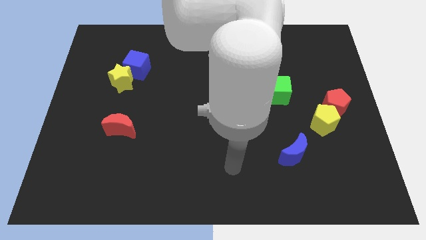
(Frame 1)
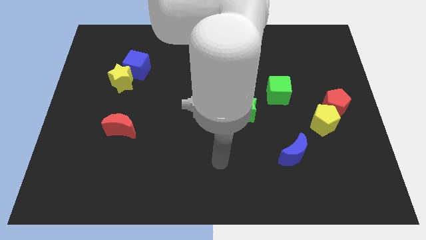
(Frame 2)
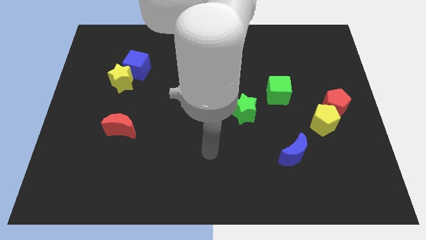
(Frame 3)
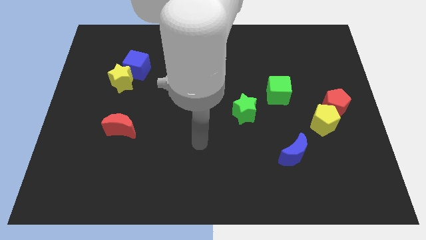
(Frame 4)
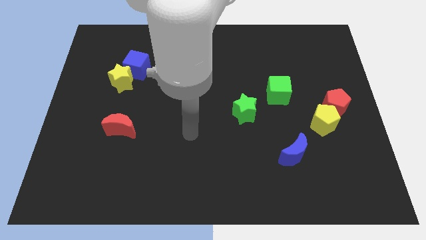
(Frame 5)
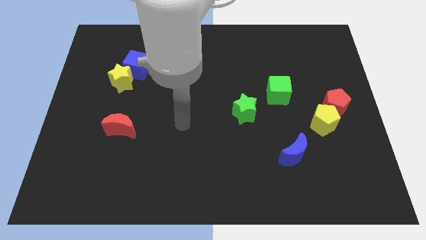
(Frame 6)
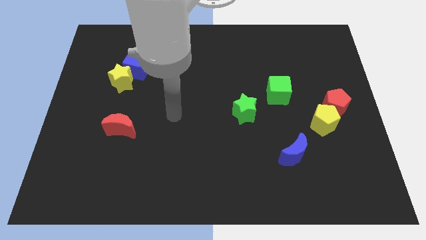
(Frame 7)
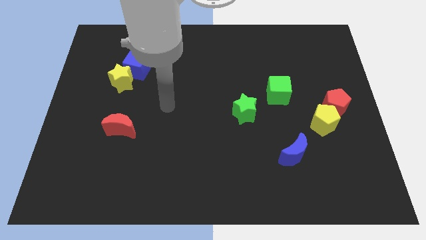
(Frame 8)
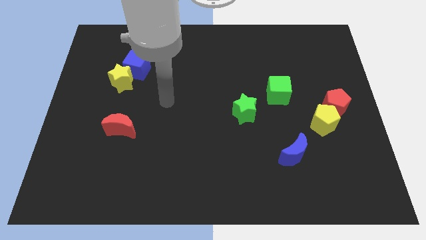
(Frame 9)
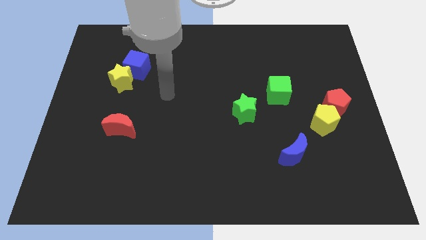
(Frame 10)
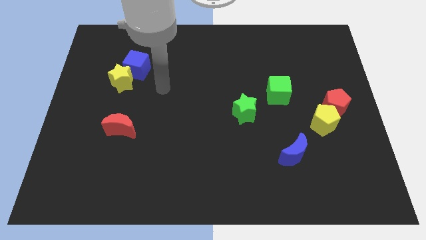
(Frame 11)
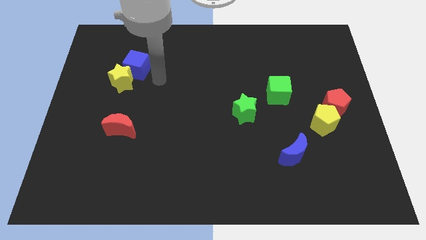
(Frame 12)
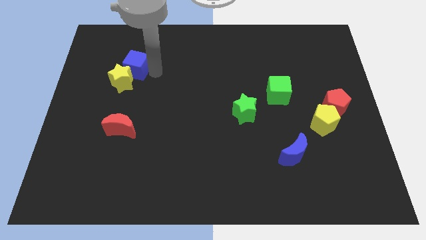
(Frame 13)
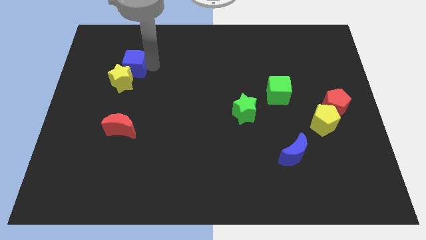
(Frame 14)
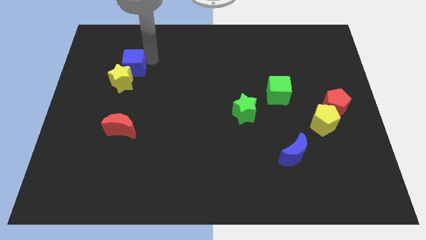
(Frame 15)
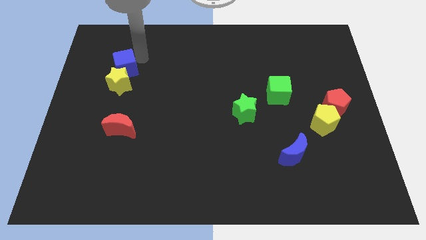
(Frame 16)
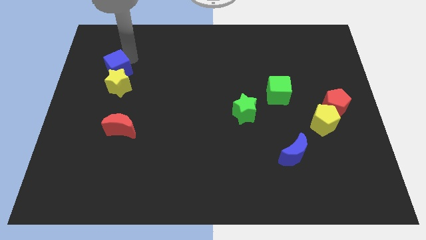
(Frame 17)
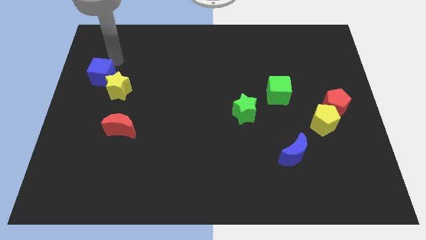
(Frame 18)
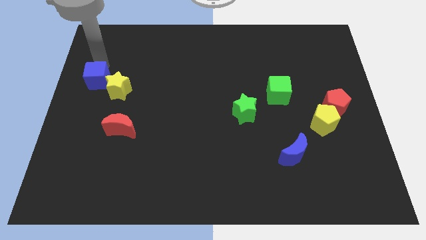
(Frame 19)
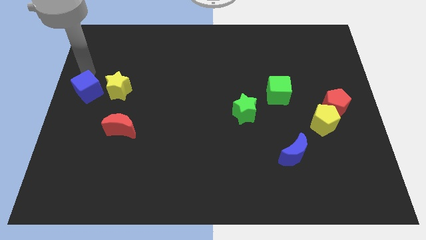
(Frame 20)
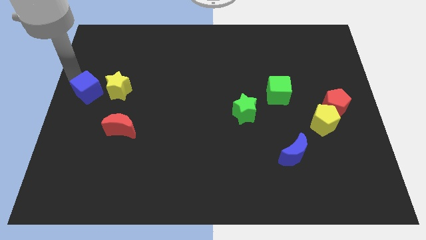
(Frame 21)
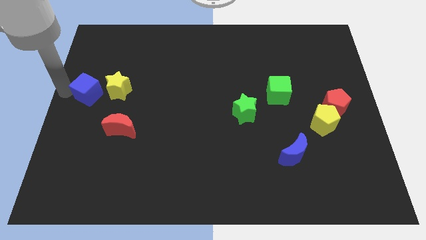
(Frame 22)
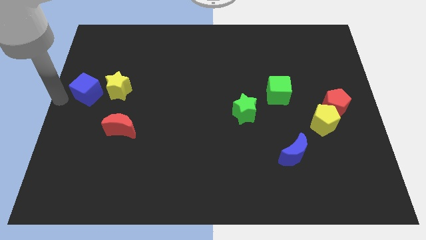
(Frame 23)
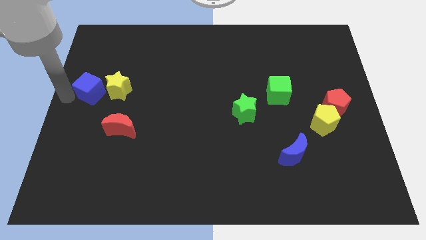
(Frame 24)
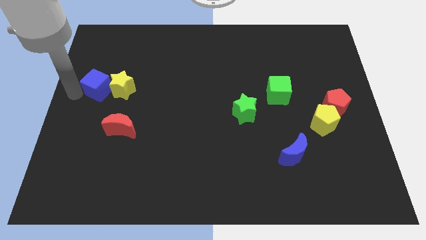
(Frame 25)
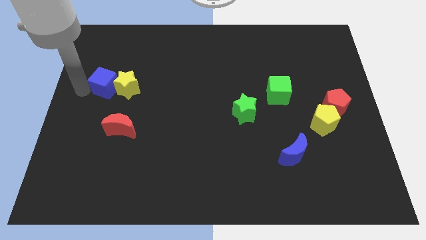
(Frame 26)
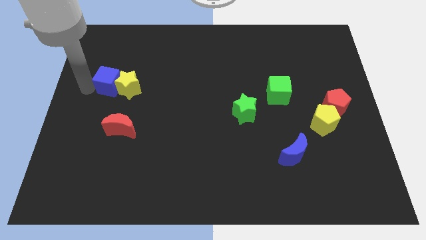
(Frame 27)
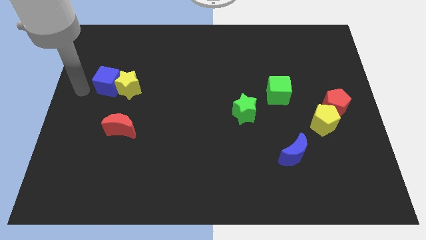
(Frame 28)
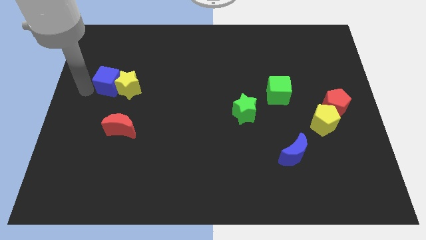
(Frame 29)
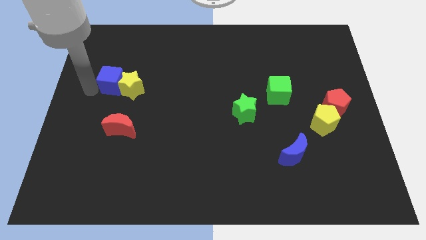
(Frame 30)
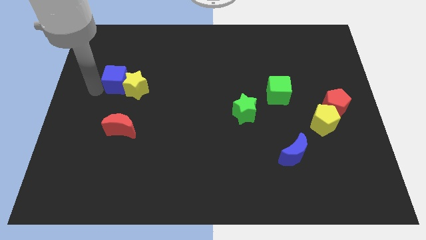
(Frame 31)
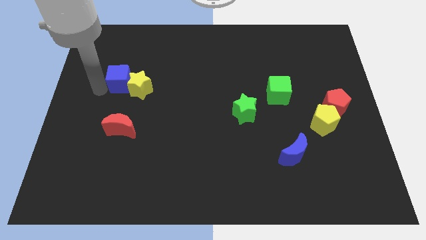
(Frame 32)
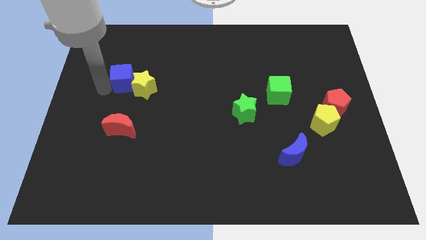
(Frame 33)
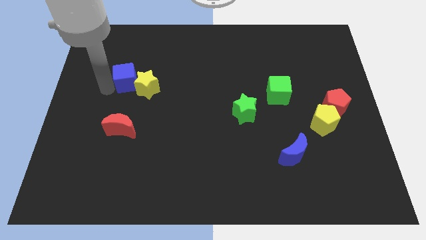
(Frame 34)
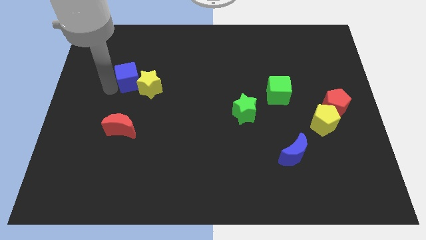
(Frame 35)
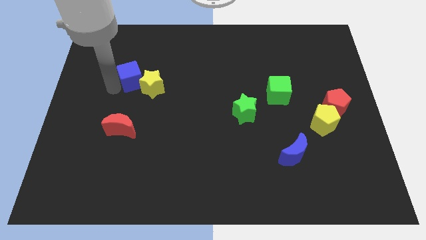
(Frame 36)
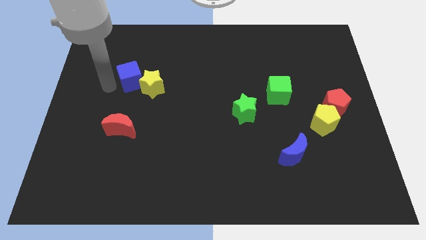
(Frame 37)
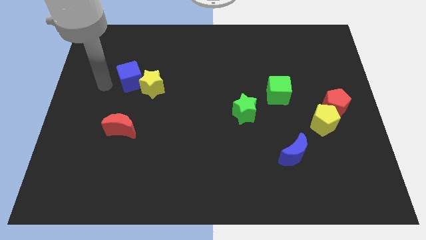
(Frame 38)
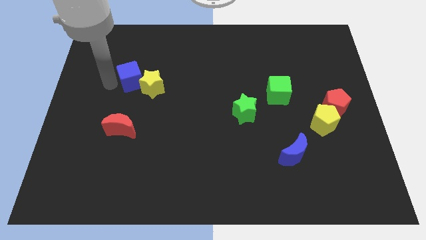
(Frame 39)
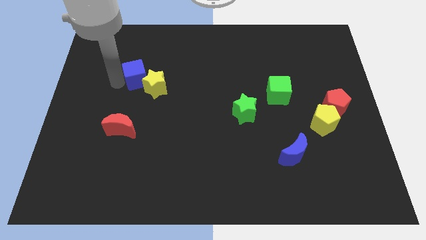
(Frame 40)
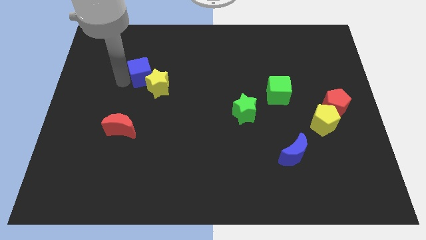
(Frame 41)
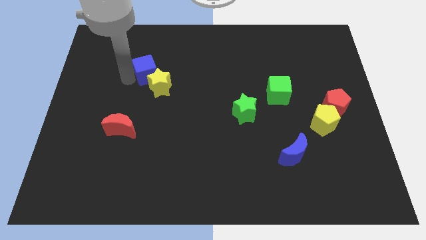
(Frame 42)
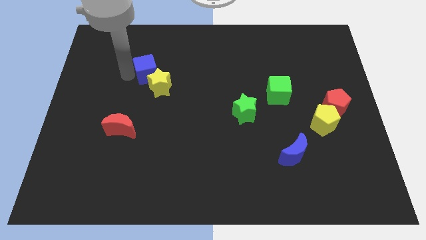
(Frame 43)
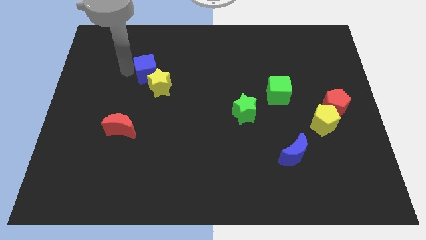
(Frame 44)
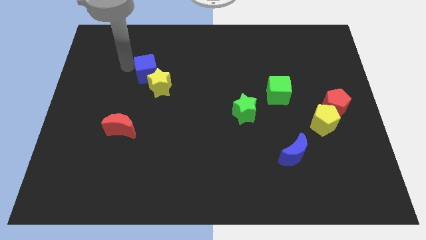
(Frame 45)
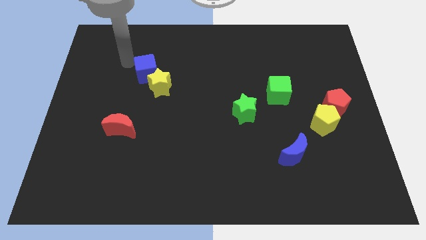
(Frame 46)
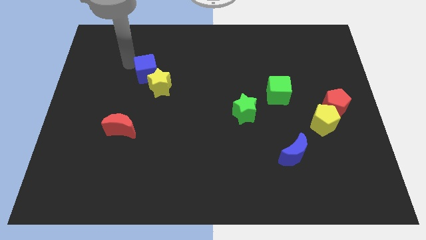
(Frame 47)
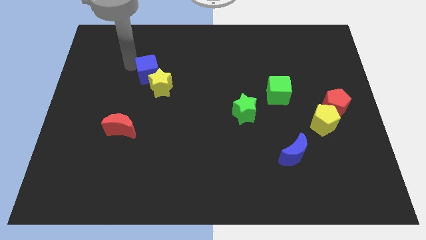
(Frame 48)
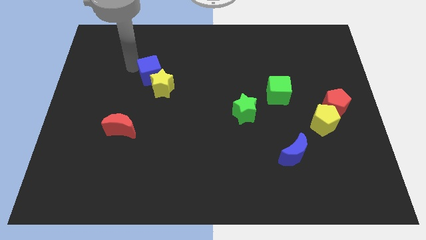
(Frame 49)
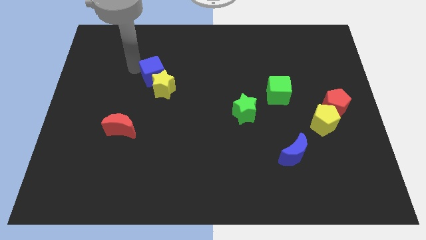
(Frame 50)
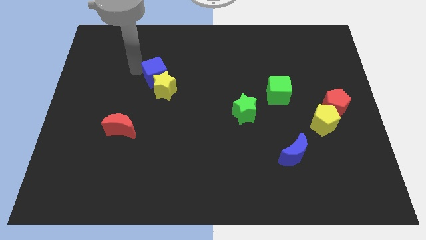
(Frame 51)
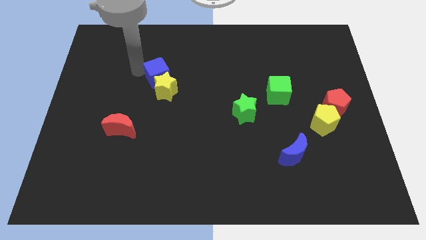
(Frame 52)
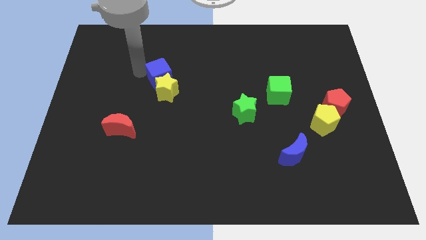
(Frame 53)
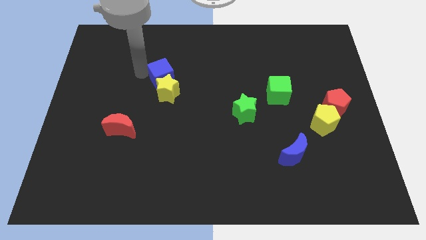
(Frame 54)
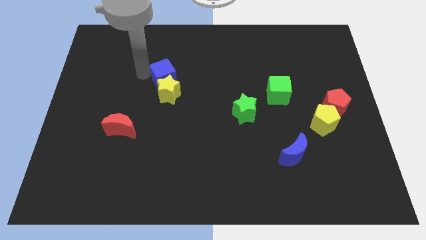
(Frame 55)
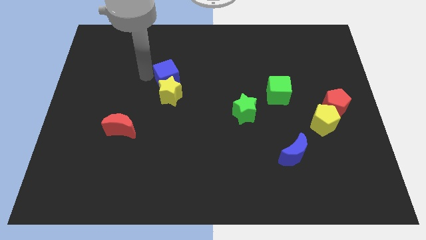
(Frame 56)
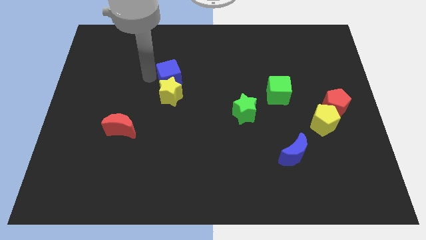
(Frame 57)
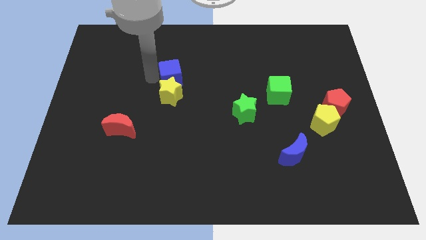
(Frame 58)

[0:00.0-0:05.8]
push the blue cube to the center of the board
